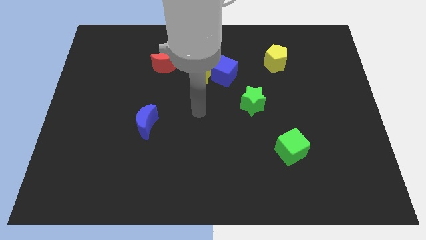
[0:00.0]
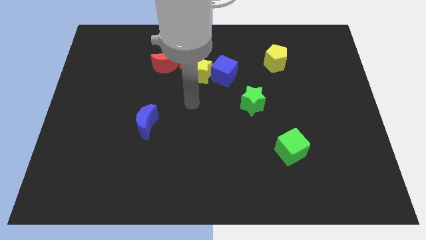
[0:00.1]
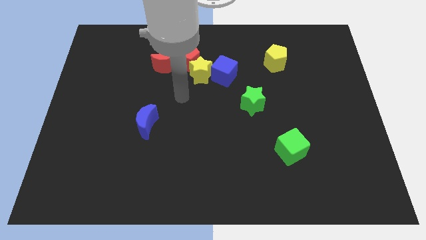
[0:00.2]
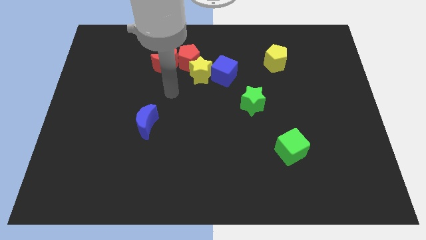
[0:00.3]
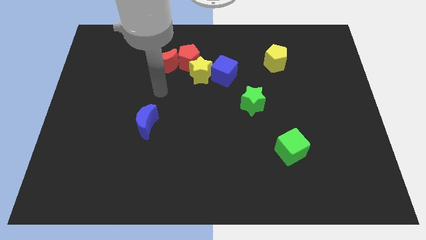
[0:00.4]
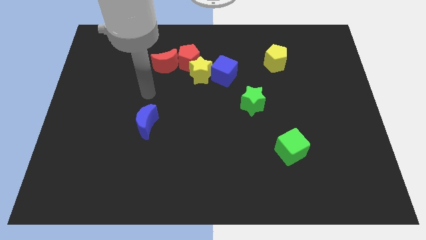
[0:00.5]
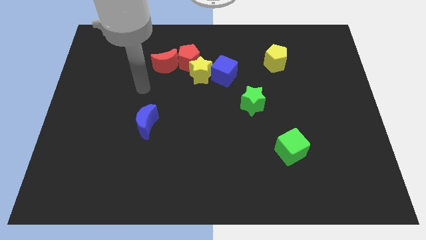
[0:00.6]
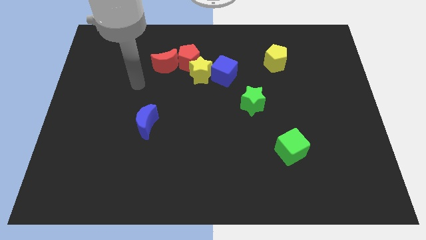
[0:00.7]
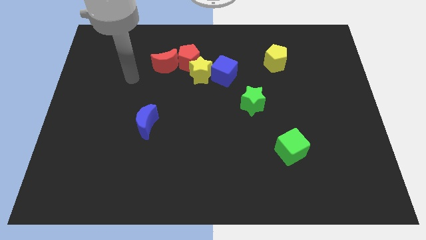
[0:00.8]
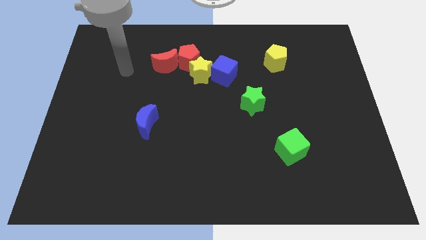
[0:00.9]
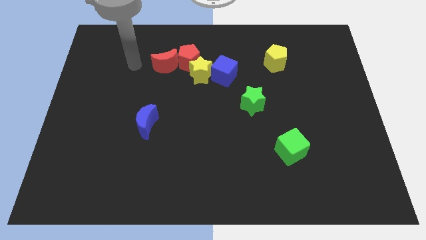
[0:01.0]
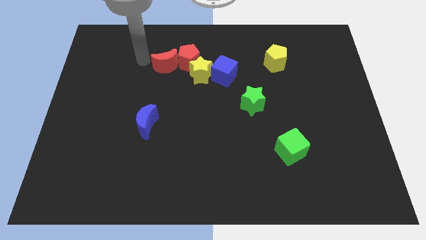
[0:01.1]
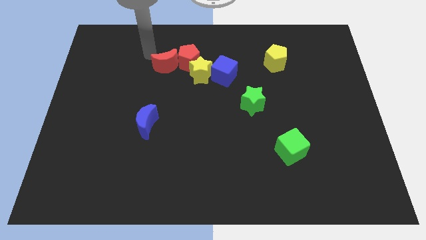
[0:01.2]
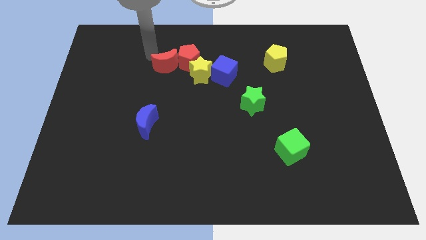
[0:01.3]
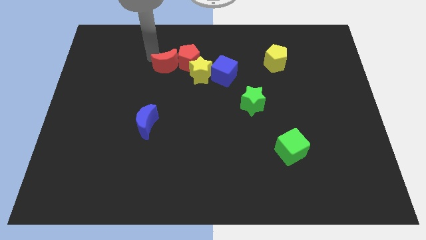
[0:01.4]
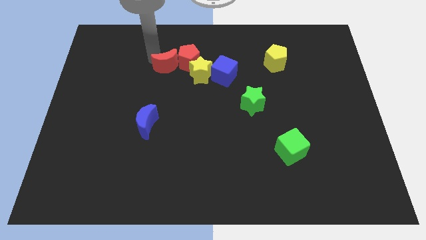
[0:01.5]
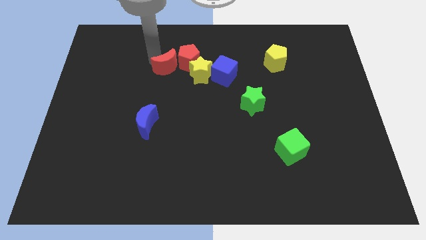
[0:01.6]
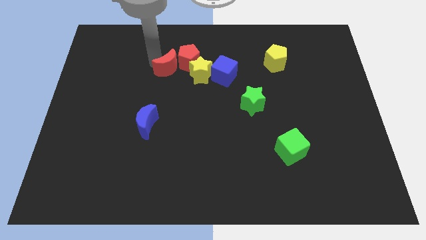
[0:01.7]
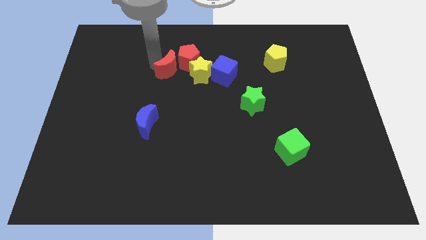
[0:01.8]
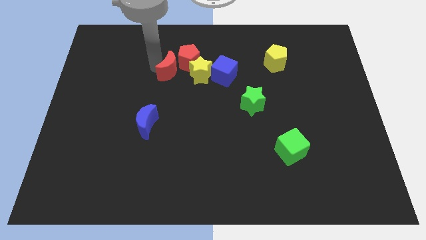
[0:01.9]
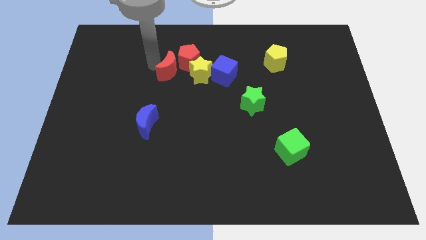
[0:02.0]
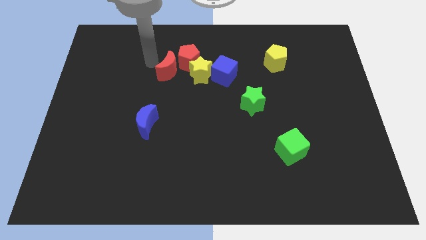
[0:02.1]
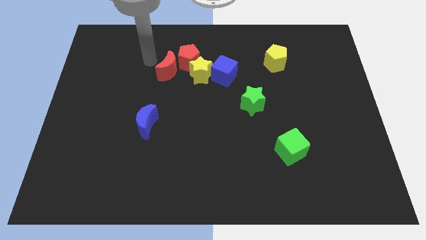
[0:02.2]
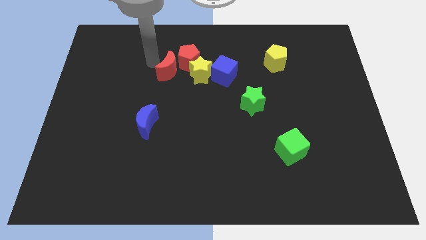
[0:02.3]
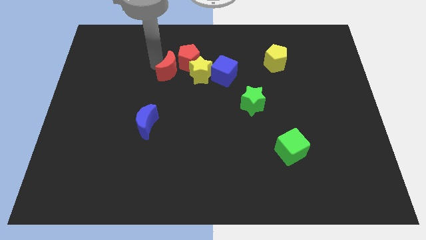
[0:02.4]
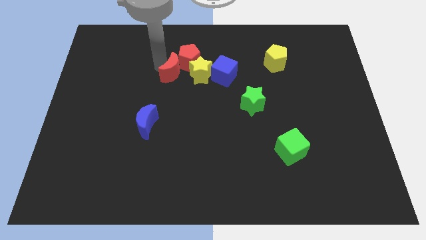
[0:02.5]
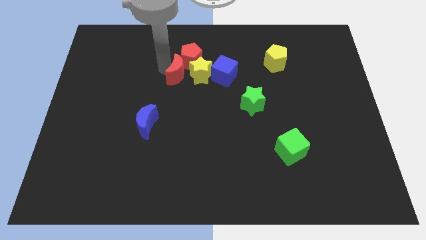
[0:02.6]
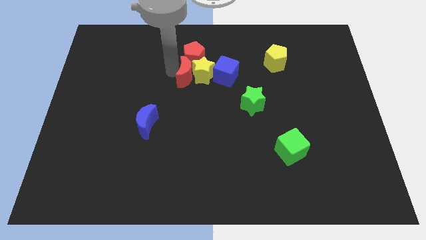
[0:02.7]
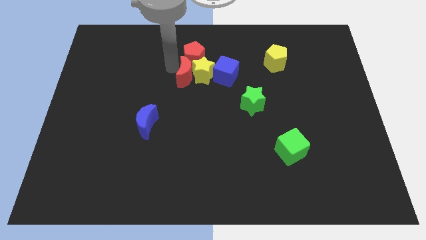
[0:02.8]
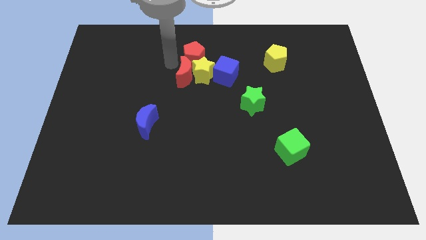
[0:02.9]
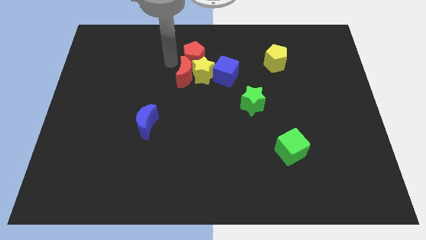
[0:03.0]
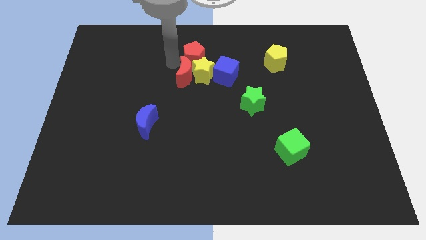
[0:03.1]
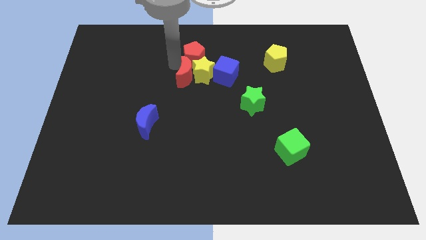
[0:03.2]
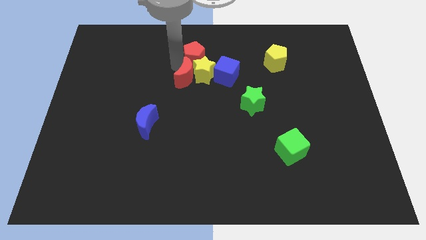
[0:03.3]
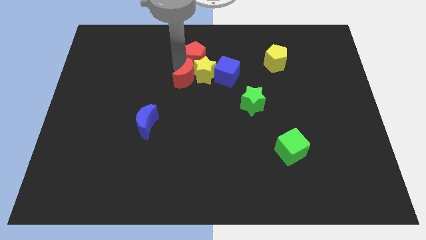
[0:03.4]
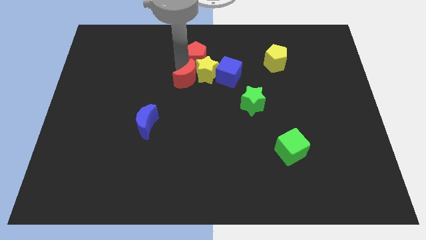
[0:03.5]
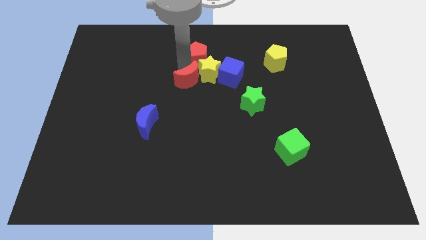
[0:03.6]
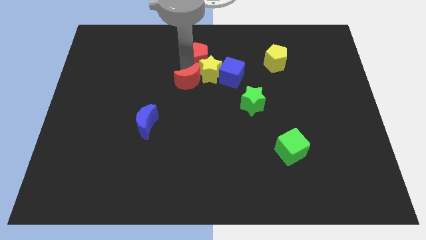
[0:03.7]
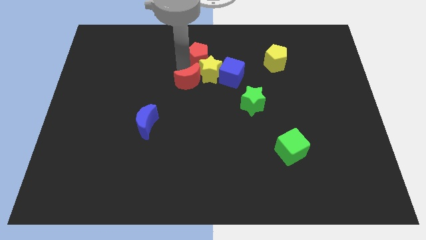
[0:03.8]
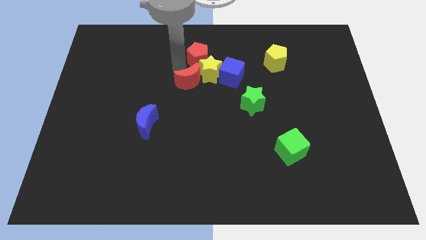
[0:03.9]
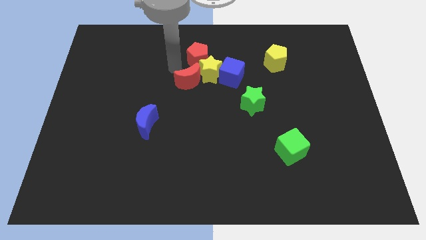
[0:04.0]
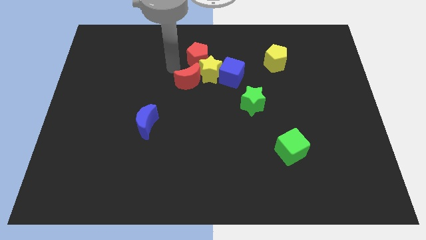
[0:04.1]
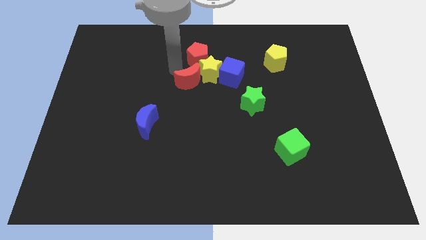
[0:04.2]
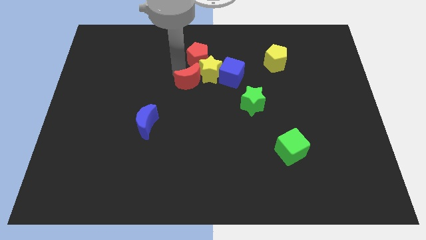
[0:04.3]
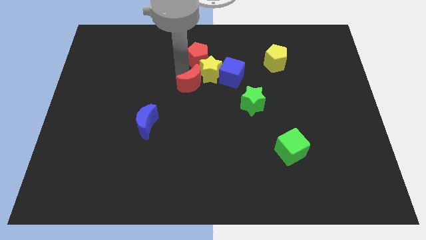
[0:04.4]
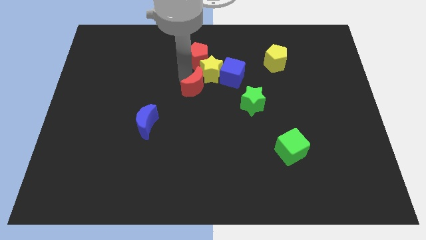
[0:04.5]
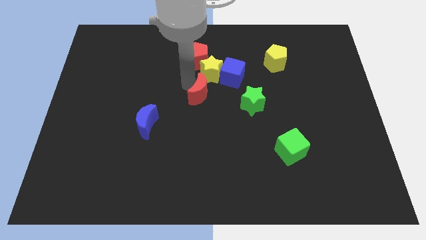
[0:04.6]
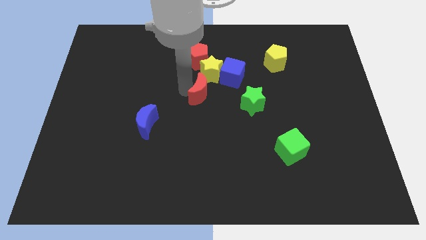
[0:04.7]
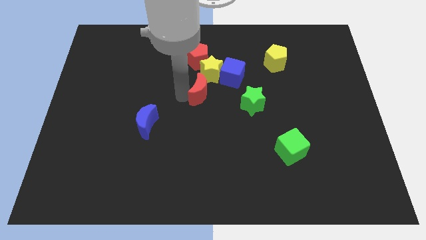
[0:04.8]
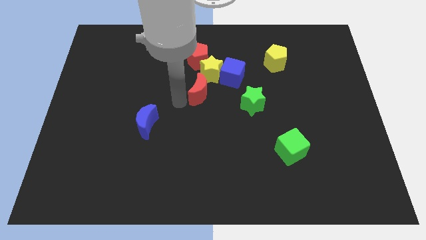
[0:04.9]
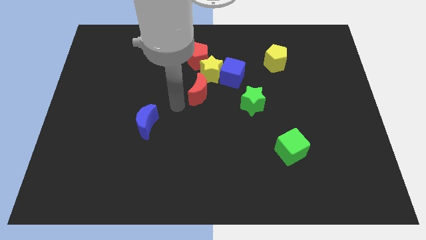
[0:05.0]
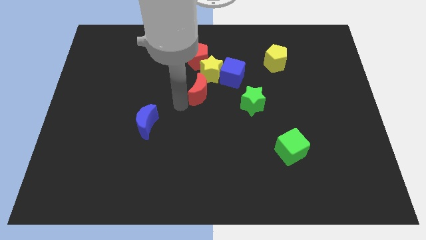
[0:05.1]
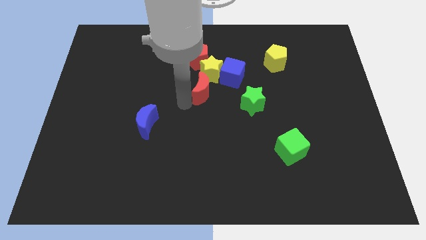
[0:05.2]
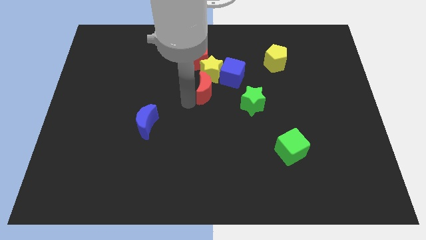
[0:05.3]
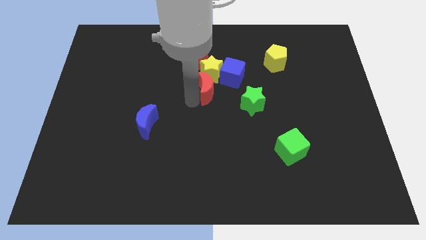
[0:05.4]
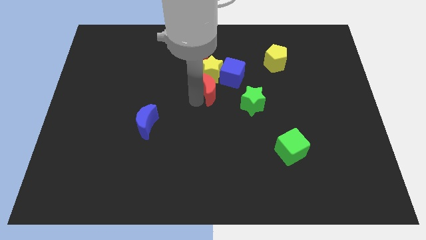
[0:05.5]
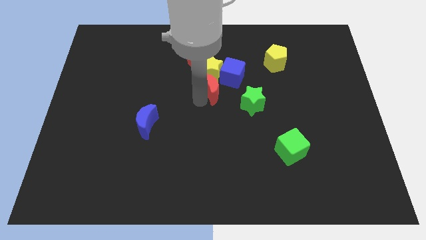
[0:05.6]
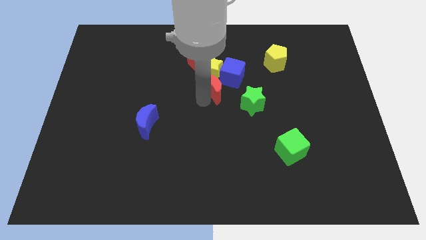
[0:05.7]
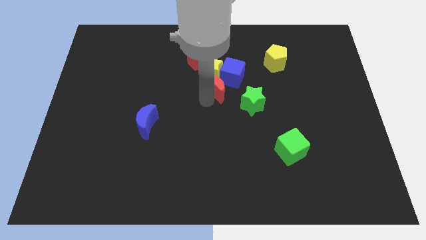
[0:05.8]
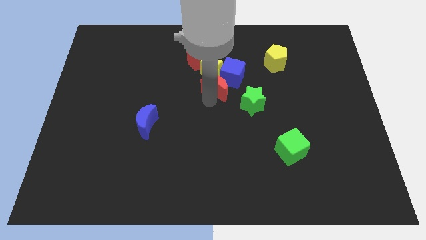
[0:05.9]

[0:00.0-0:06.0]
push the red moon next to the blue cube

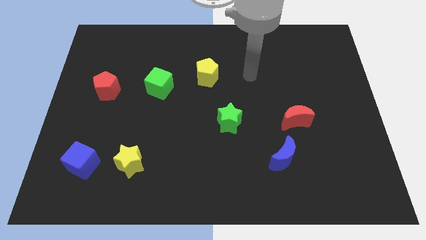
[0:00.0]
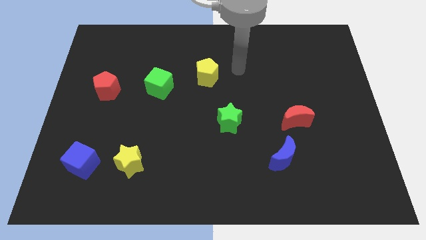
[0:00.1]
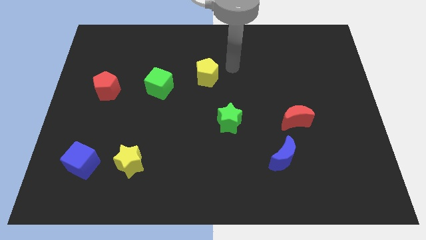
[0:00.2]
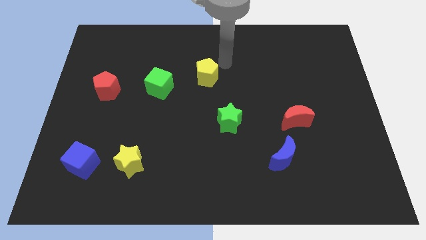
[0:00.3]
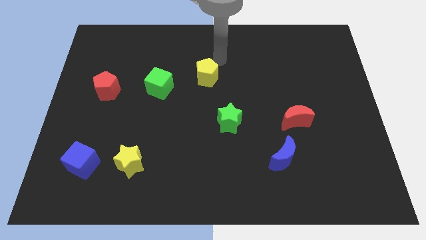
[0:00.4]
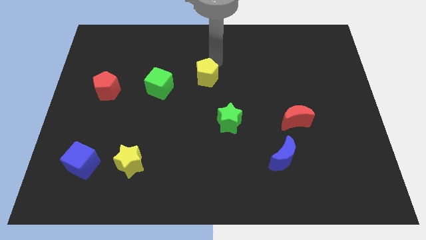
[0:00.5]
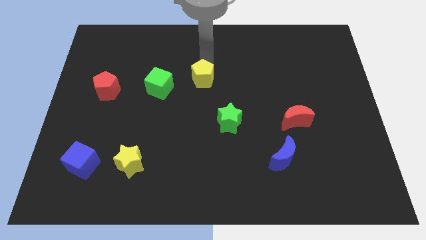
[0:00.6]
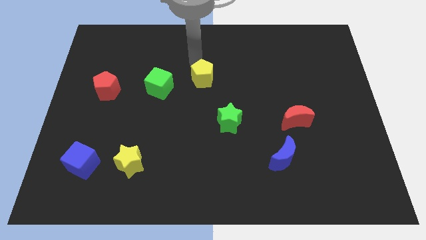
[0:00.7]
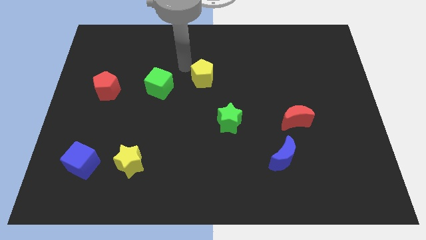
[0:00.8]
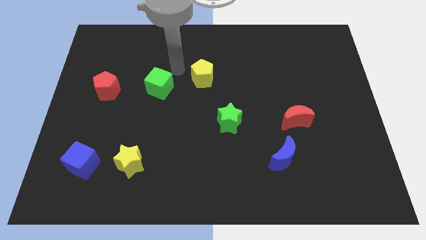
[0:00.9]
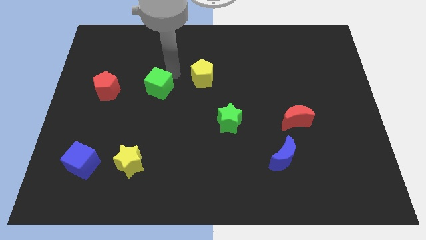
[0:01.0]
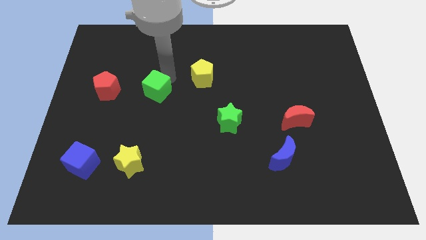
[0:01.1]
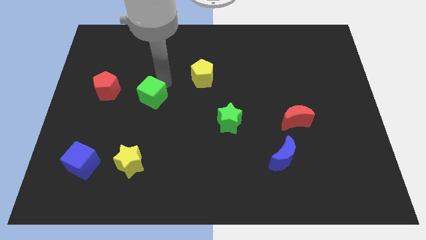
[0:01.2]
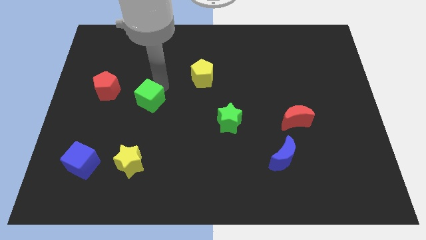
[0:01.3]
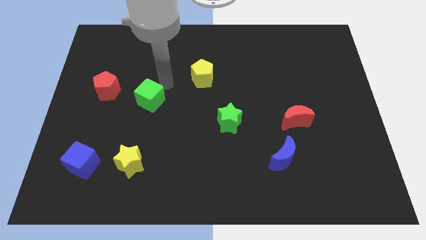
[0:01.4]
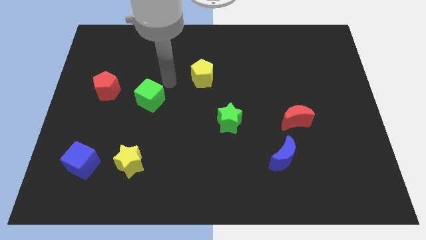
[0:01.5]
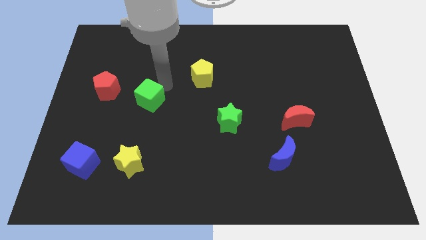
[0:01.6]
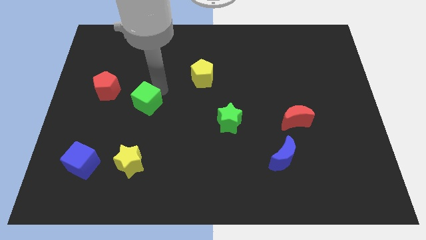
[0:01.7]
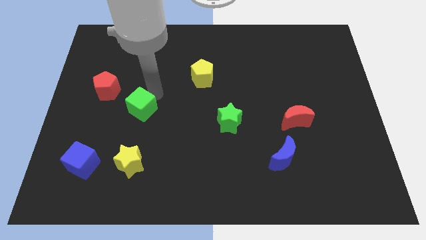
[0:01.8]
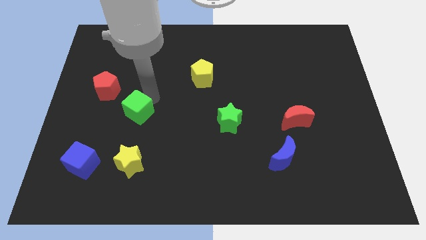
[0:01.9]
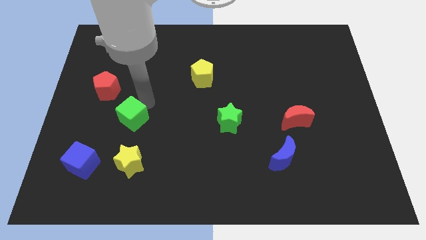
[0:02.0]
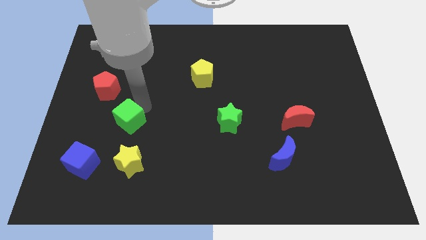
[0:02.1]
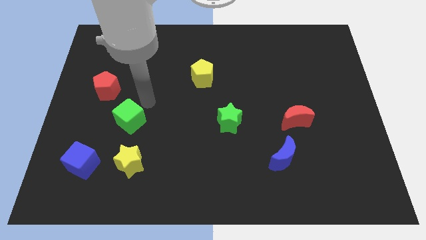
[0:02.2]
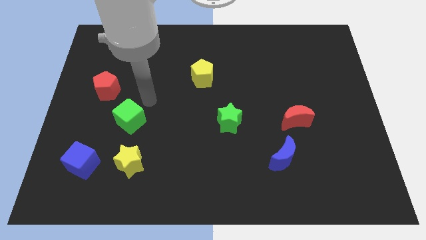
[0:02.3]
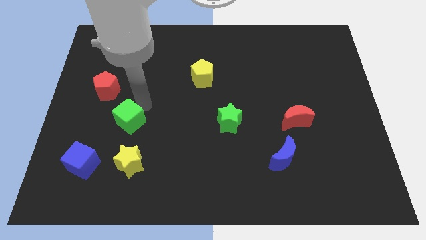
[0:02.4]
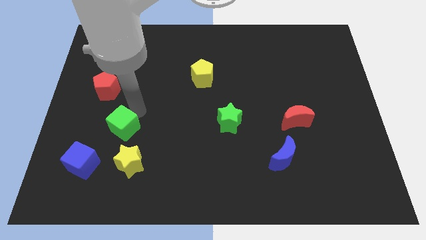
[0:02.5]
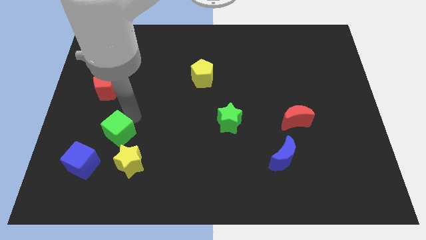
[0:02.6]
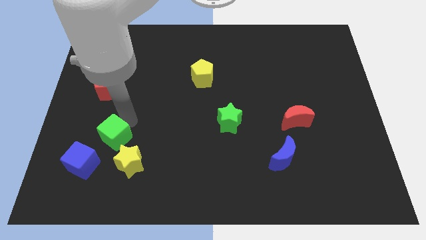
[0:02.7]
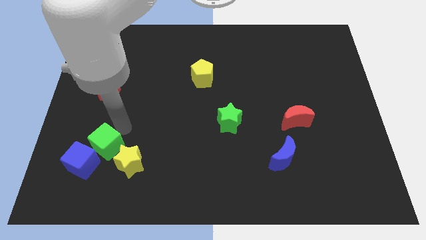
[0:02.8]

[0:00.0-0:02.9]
slide the green cube close to the blue cube
